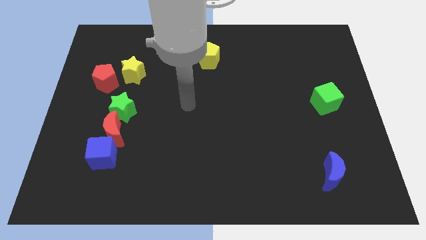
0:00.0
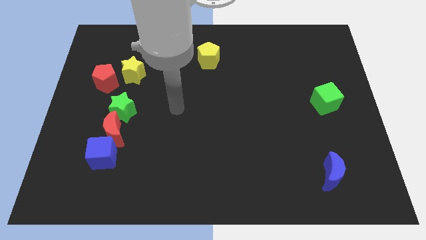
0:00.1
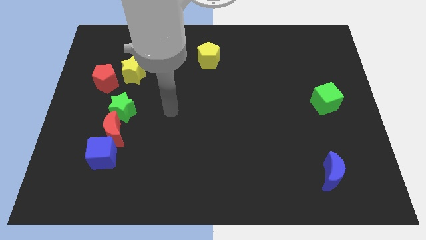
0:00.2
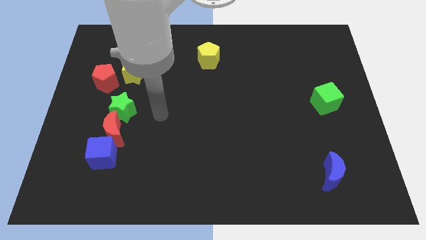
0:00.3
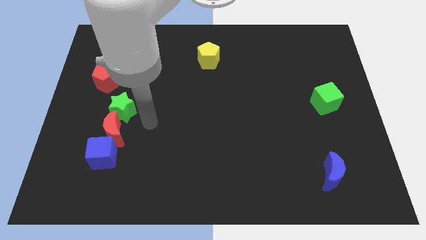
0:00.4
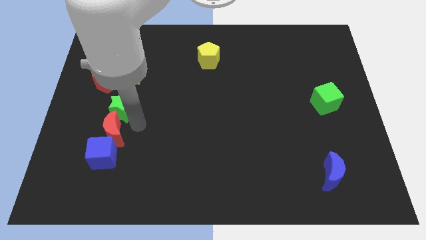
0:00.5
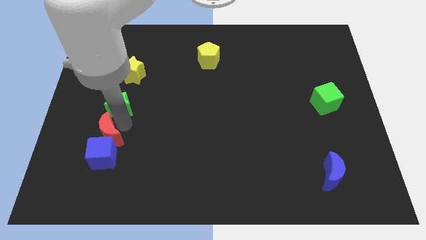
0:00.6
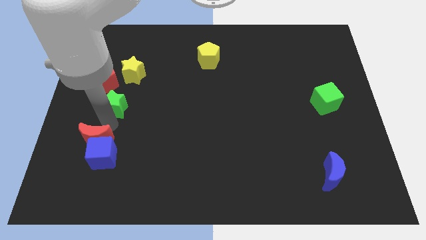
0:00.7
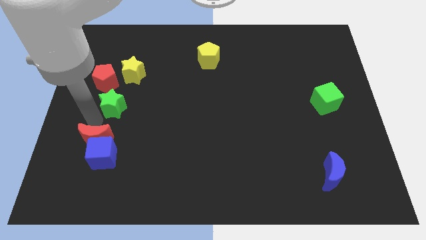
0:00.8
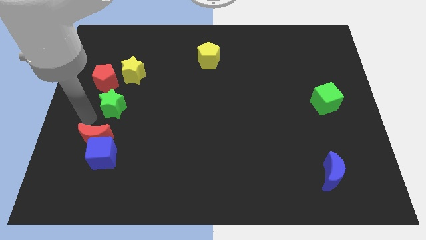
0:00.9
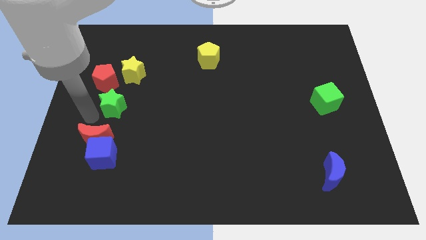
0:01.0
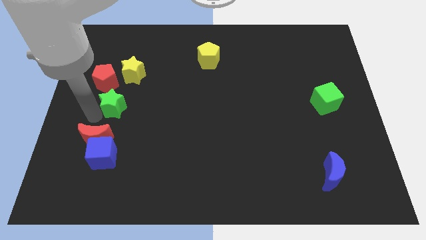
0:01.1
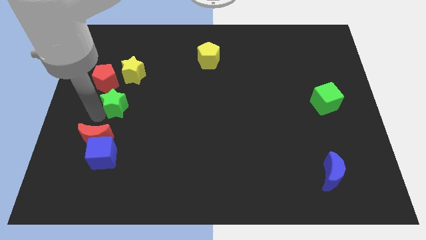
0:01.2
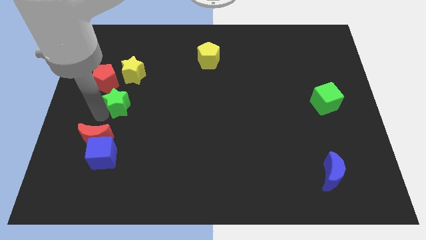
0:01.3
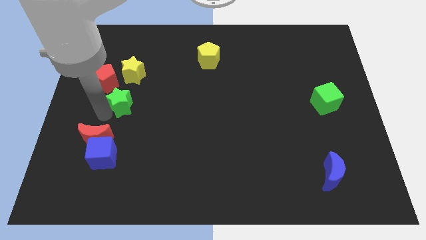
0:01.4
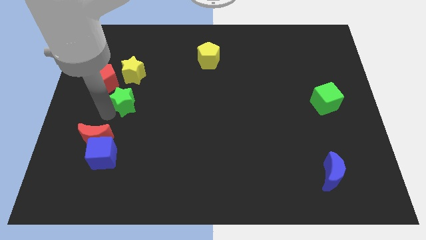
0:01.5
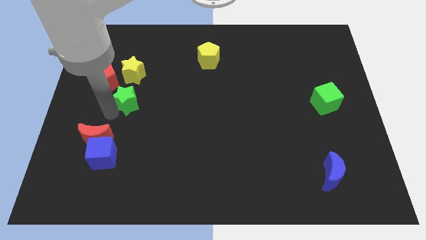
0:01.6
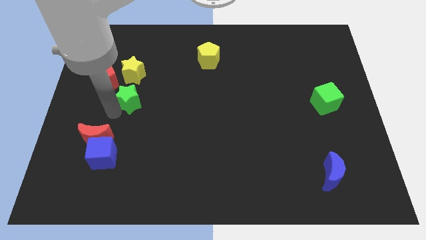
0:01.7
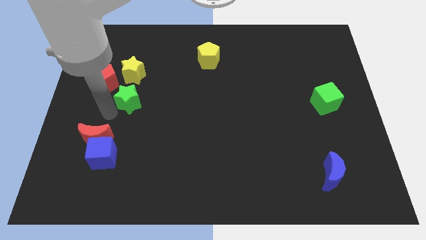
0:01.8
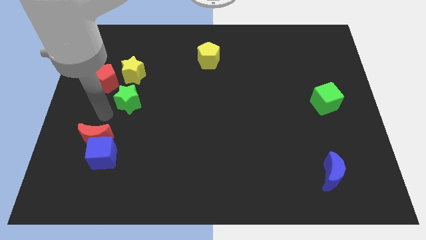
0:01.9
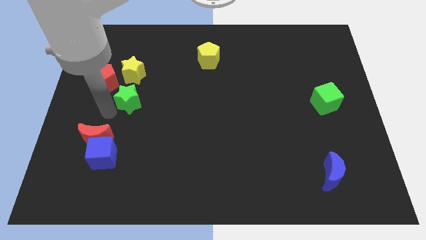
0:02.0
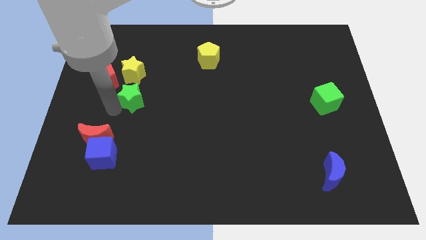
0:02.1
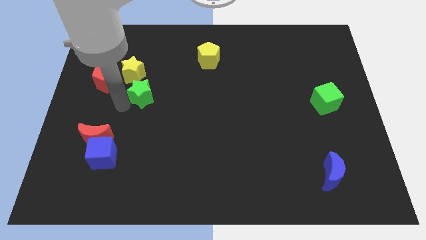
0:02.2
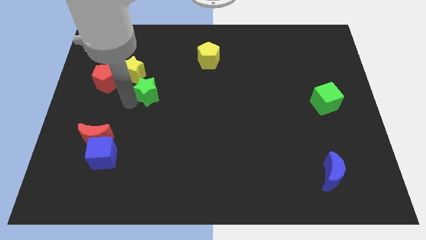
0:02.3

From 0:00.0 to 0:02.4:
slightly slide the green star up and to the right

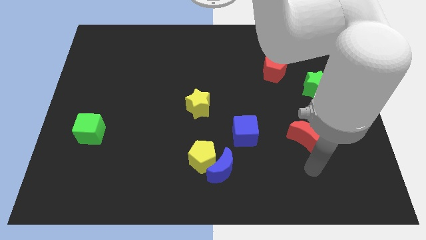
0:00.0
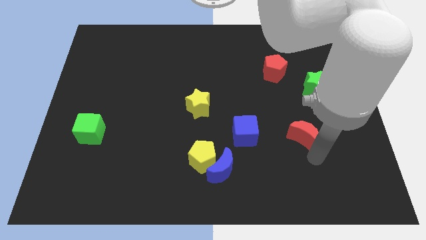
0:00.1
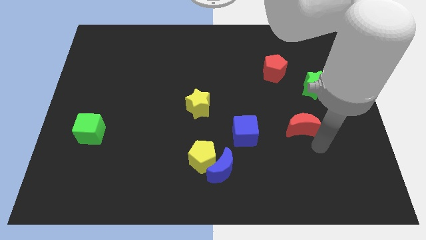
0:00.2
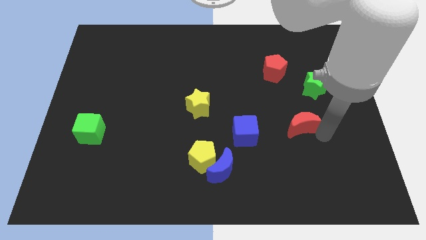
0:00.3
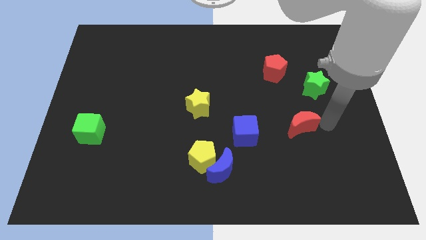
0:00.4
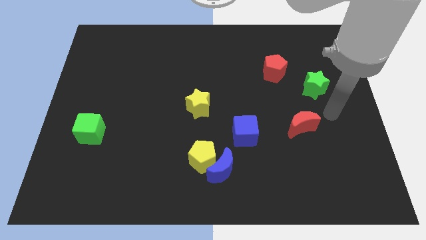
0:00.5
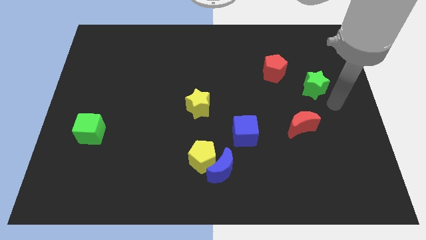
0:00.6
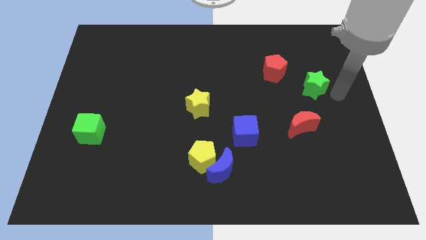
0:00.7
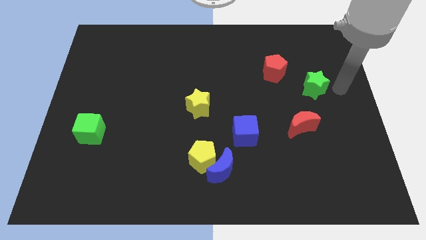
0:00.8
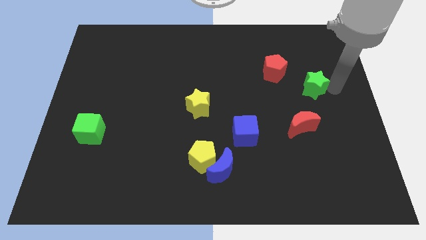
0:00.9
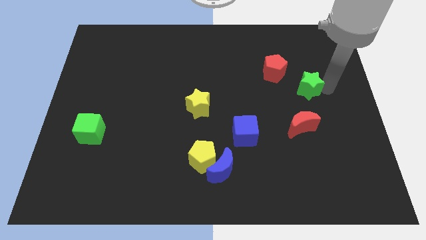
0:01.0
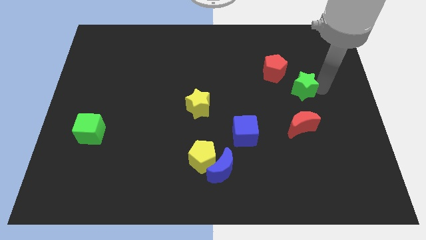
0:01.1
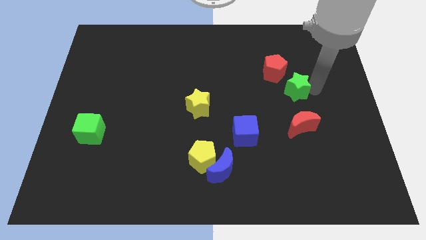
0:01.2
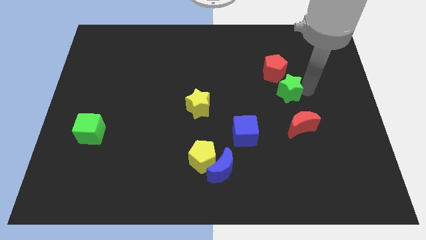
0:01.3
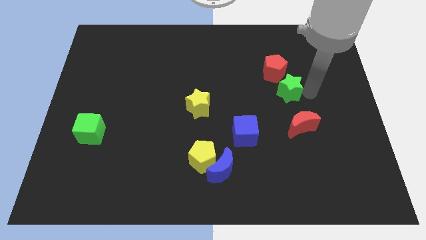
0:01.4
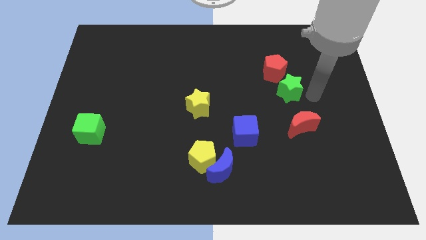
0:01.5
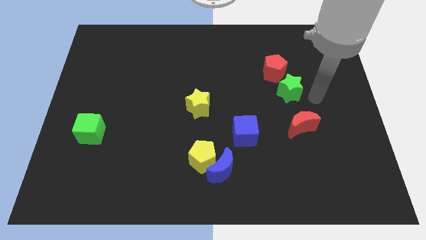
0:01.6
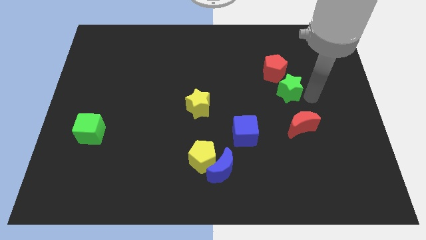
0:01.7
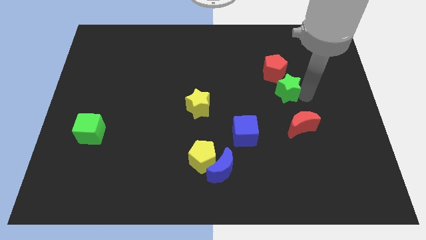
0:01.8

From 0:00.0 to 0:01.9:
push the green star a bit to the left

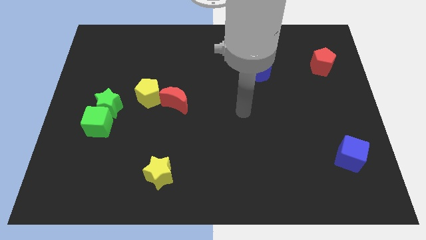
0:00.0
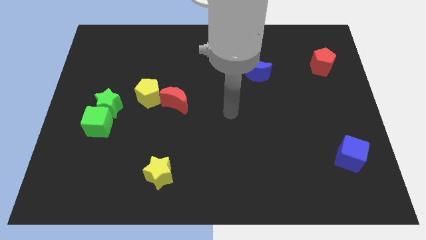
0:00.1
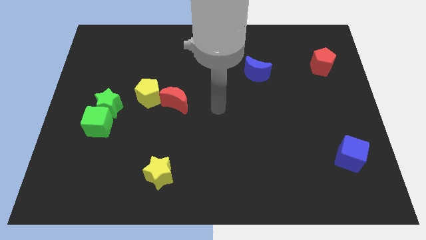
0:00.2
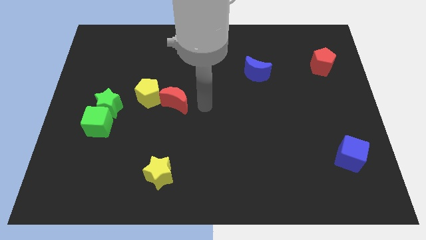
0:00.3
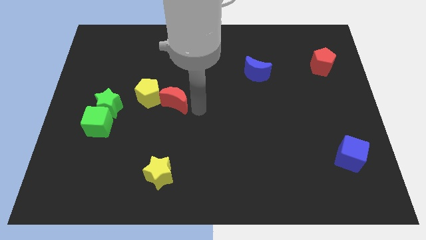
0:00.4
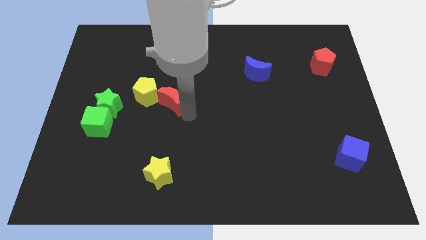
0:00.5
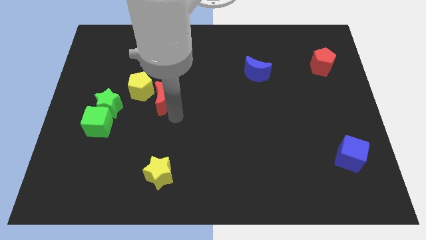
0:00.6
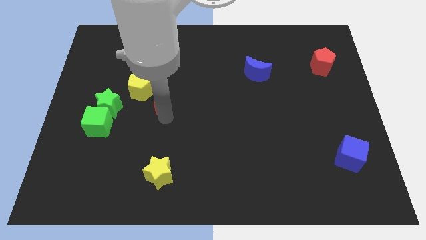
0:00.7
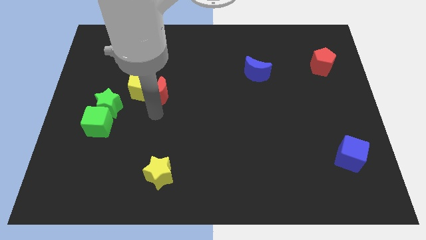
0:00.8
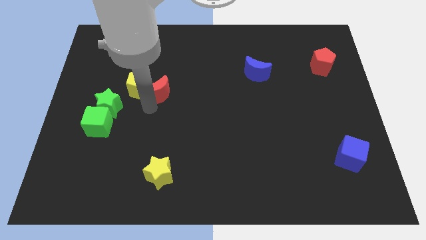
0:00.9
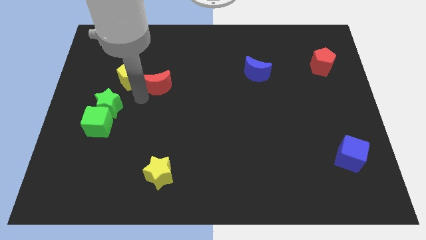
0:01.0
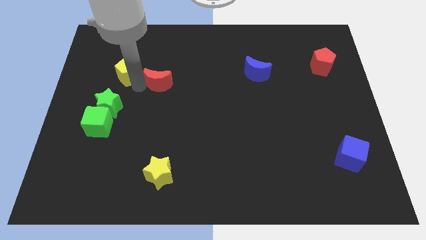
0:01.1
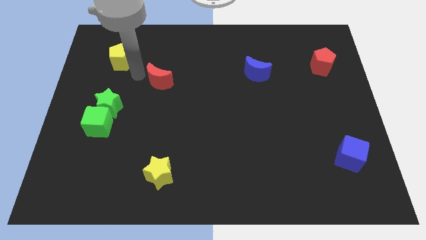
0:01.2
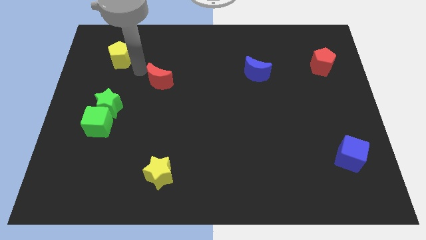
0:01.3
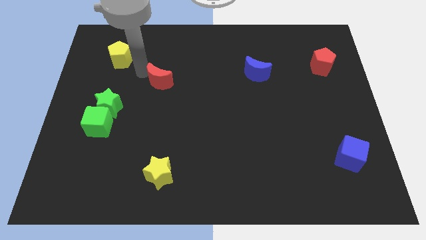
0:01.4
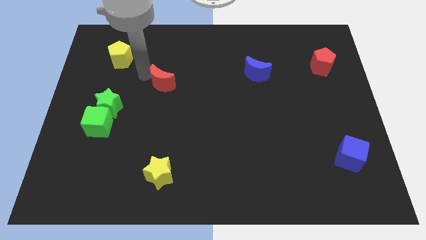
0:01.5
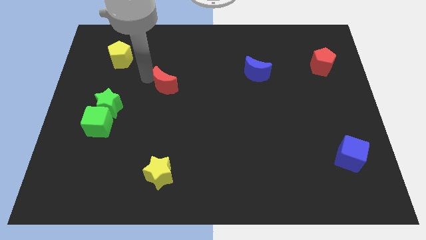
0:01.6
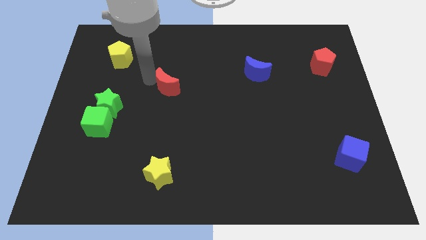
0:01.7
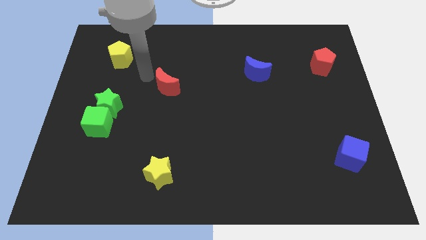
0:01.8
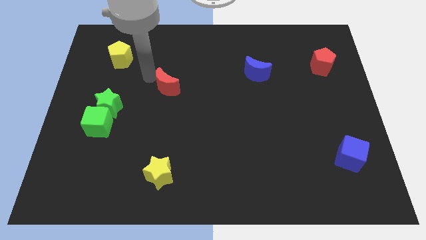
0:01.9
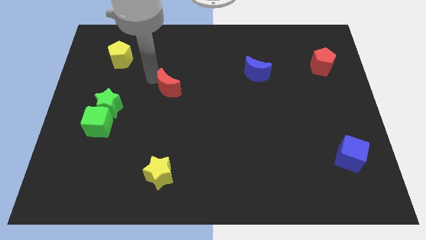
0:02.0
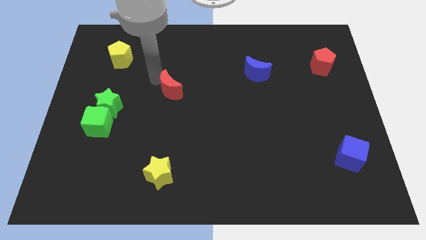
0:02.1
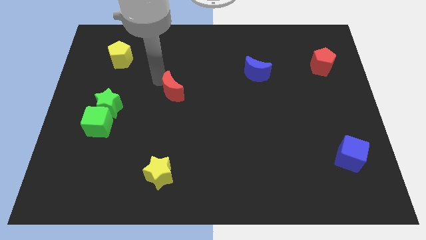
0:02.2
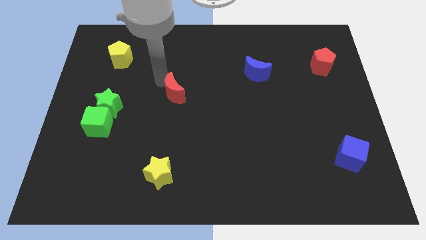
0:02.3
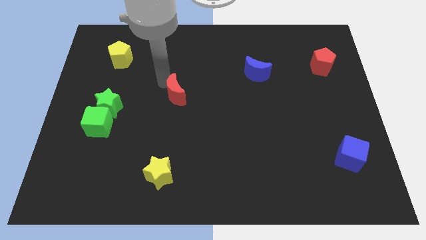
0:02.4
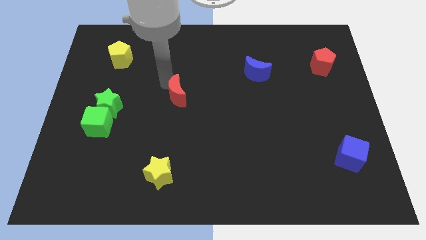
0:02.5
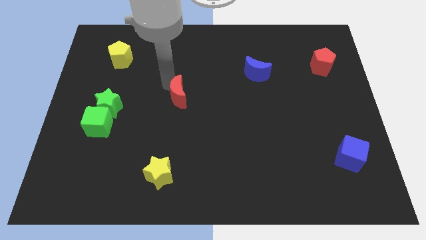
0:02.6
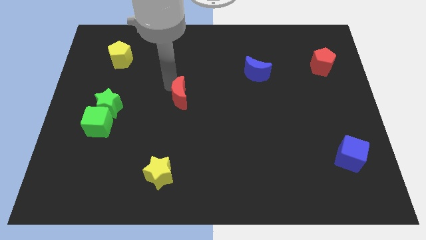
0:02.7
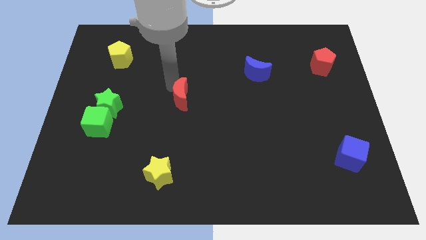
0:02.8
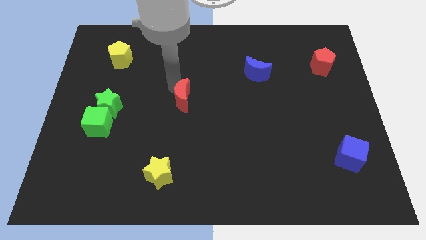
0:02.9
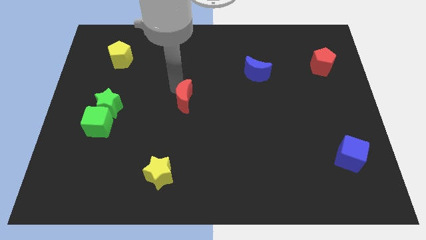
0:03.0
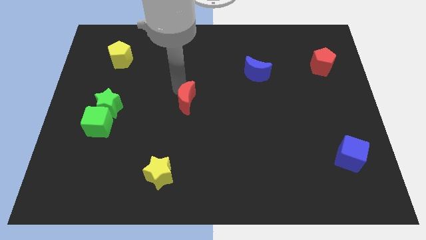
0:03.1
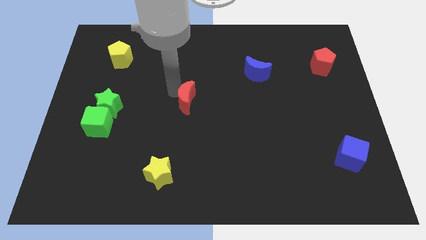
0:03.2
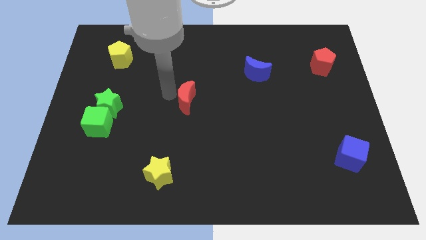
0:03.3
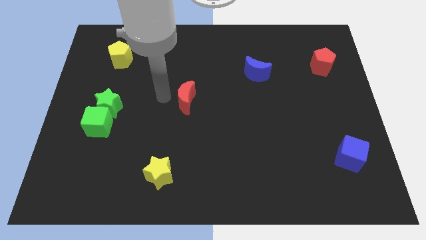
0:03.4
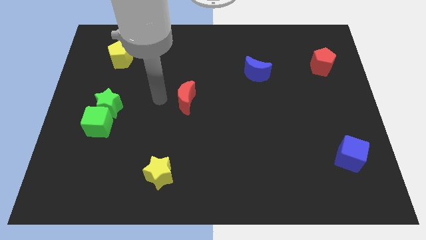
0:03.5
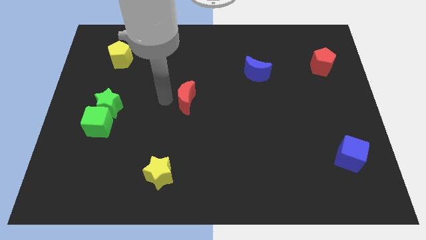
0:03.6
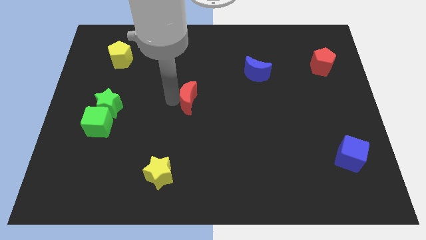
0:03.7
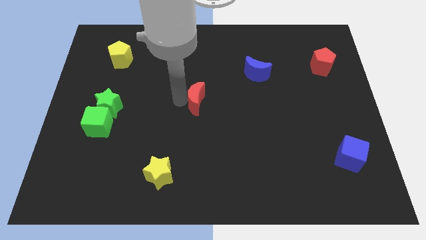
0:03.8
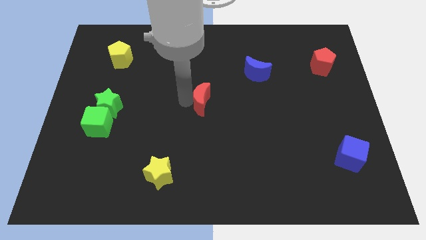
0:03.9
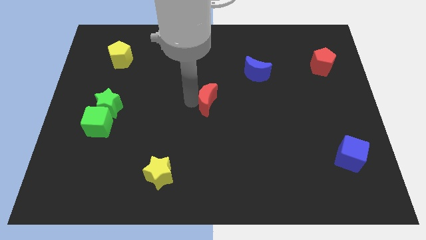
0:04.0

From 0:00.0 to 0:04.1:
slightly push the red moon to the right
